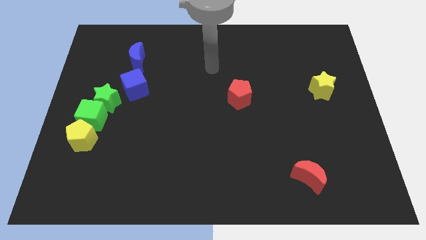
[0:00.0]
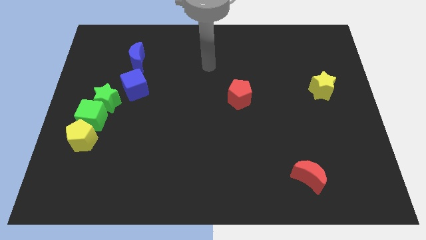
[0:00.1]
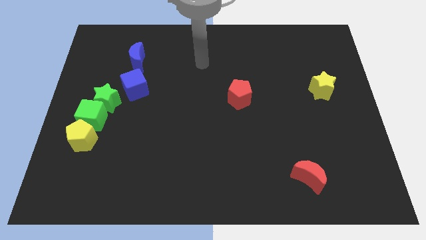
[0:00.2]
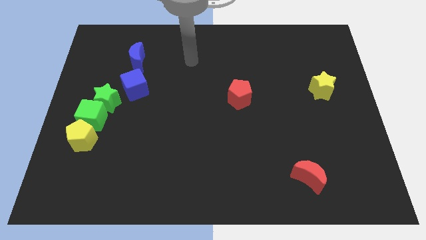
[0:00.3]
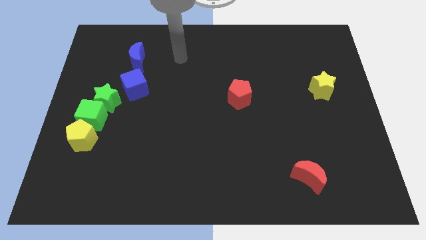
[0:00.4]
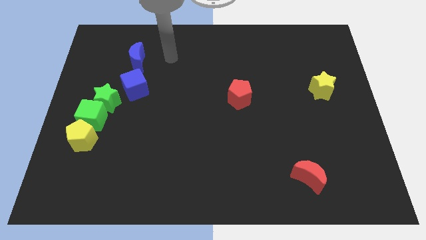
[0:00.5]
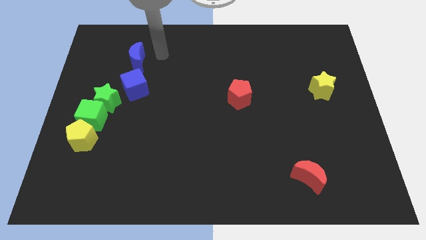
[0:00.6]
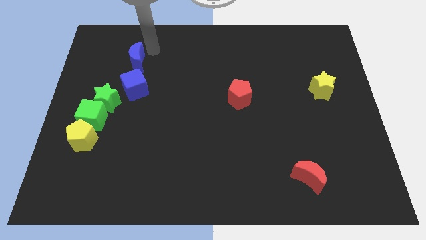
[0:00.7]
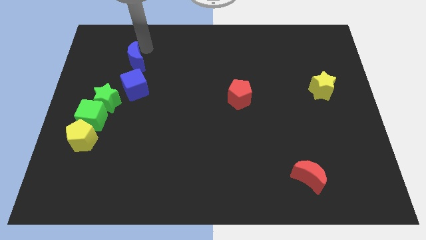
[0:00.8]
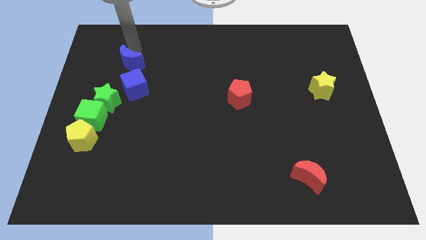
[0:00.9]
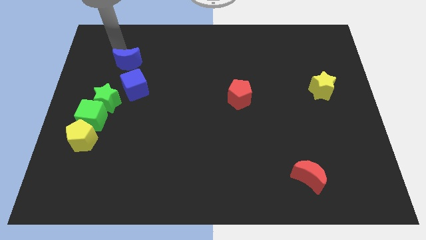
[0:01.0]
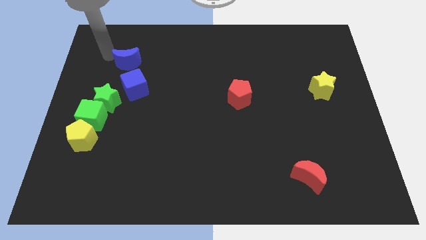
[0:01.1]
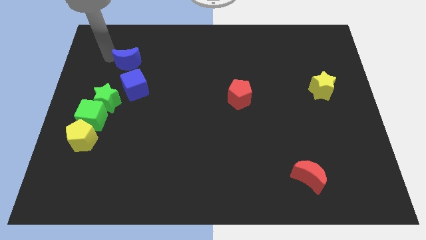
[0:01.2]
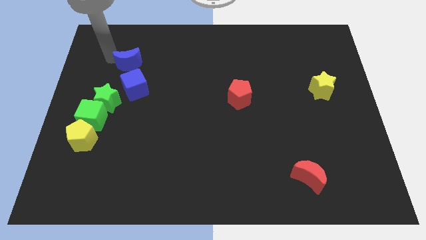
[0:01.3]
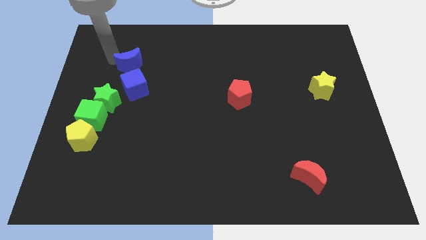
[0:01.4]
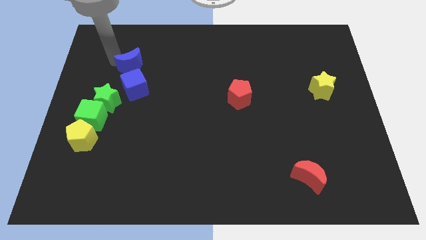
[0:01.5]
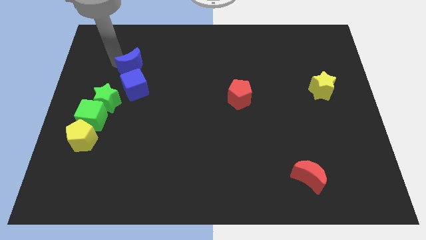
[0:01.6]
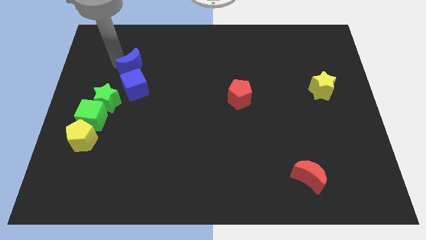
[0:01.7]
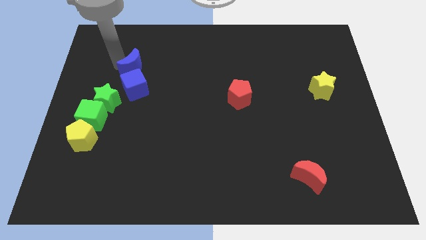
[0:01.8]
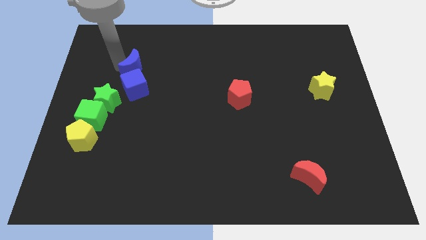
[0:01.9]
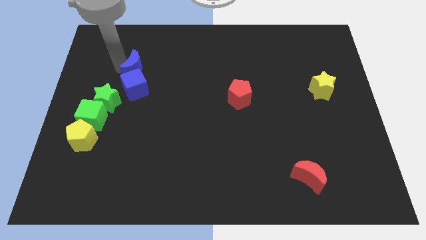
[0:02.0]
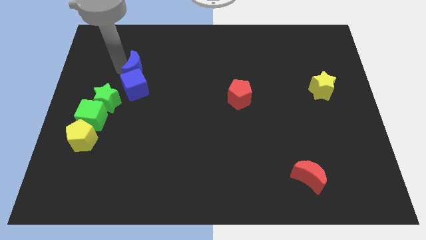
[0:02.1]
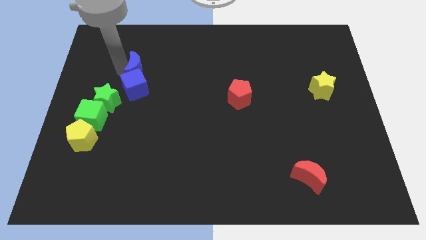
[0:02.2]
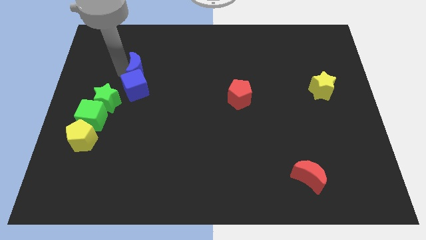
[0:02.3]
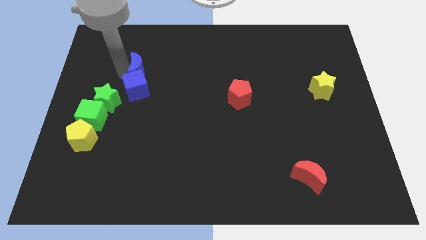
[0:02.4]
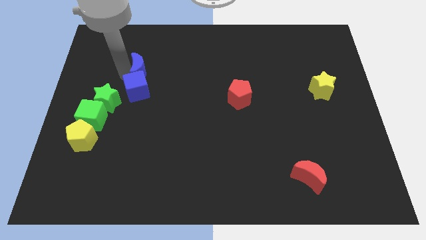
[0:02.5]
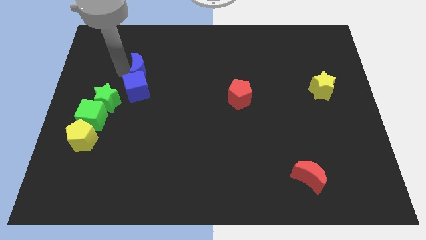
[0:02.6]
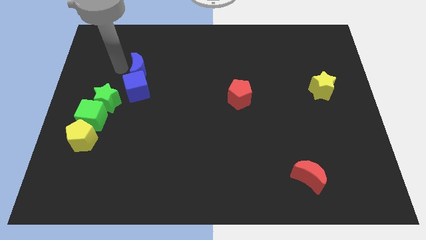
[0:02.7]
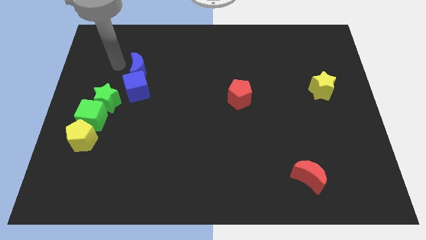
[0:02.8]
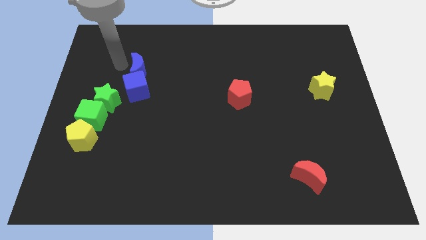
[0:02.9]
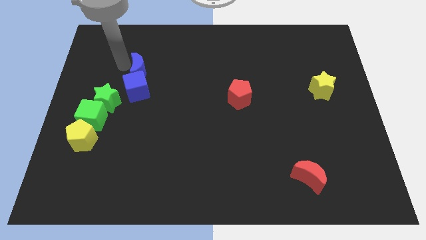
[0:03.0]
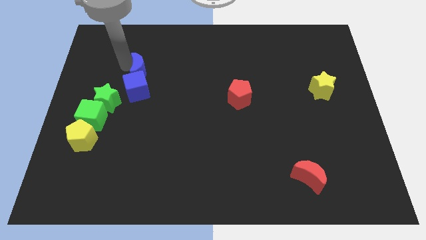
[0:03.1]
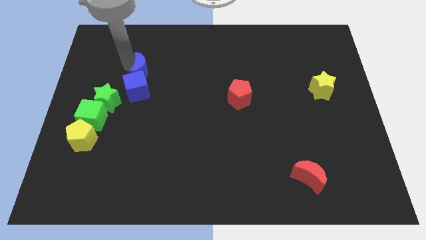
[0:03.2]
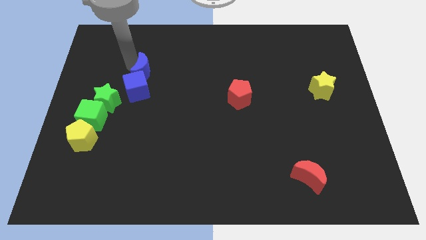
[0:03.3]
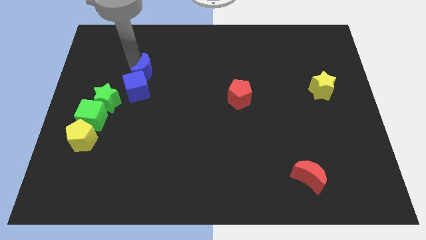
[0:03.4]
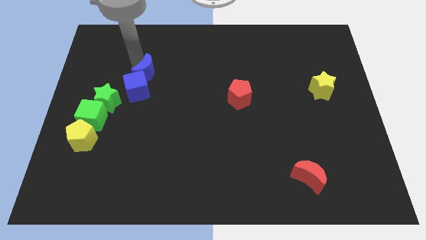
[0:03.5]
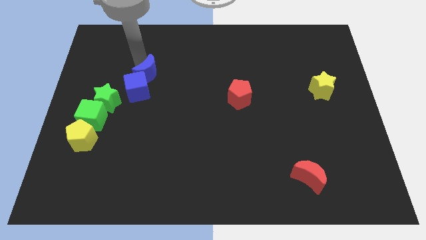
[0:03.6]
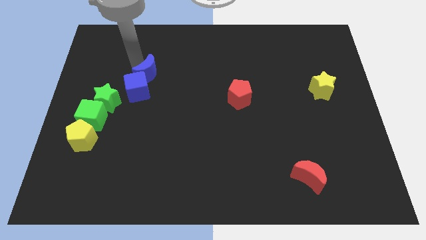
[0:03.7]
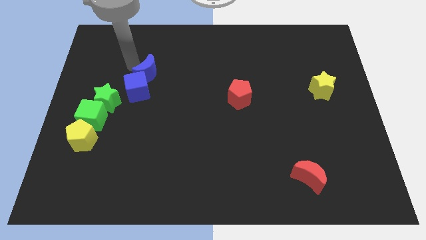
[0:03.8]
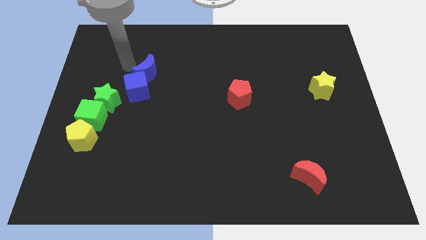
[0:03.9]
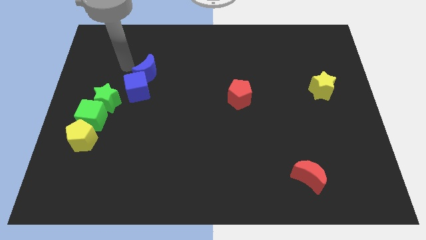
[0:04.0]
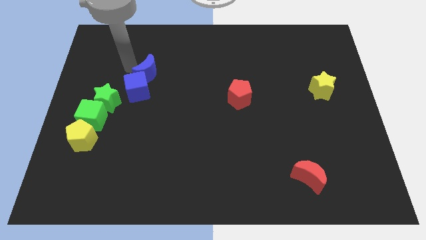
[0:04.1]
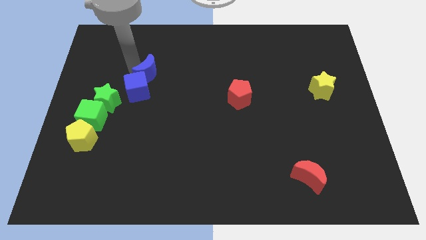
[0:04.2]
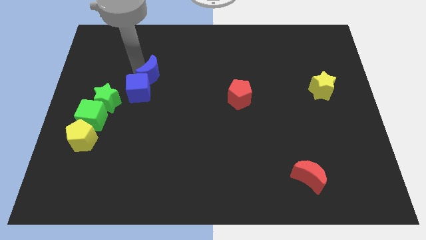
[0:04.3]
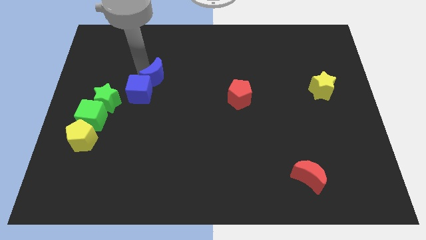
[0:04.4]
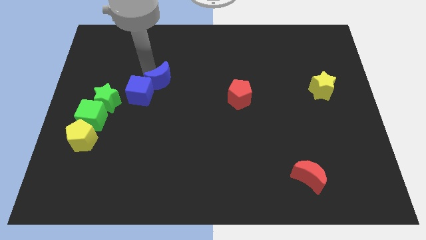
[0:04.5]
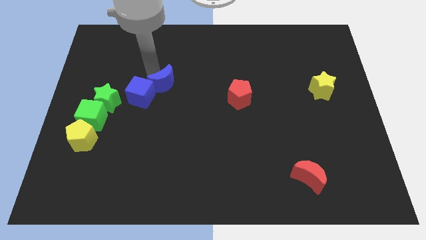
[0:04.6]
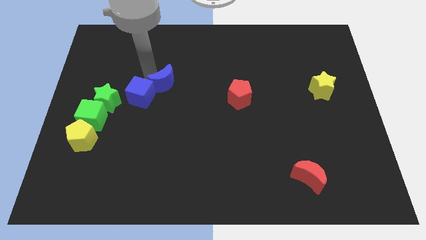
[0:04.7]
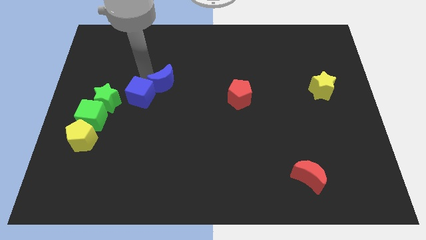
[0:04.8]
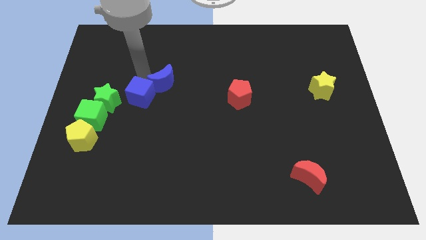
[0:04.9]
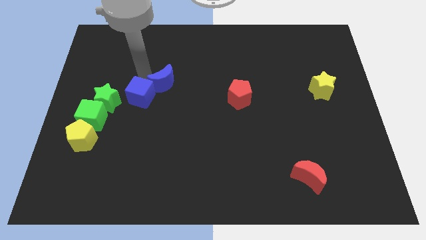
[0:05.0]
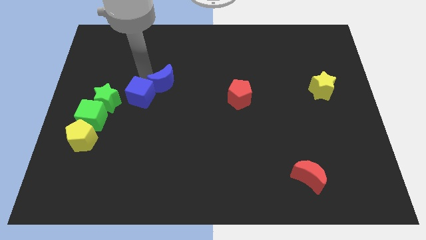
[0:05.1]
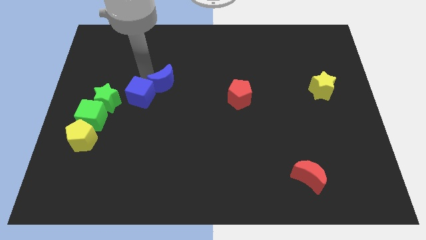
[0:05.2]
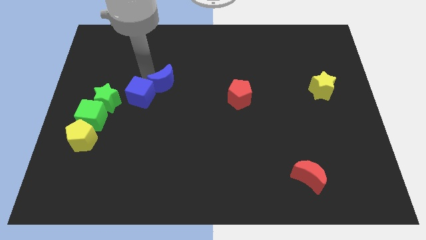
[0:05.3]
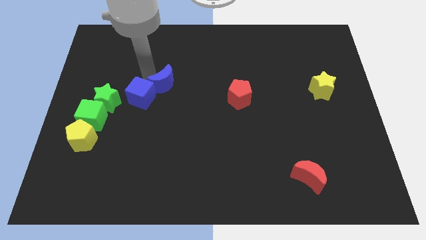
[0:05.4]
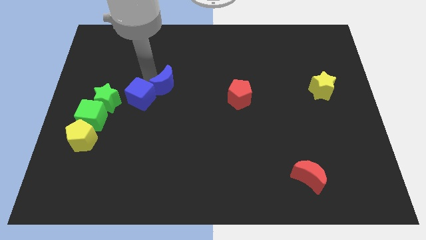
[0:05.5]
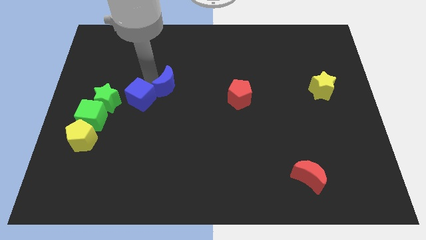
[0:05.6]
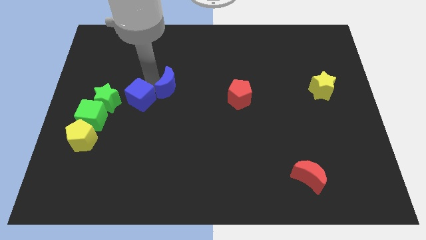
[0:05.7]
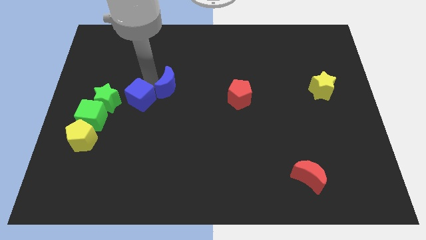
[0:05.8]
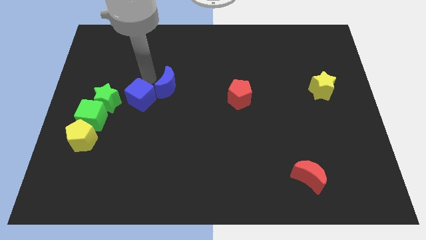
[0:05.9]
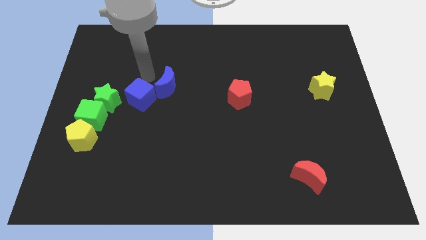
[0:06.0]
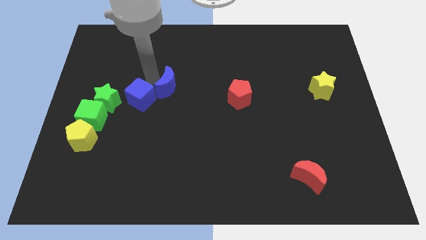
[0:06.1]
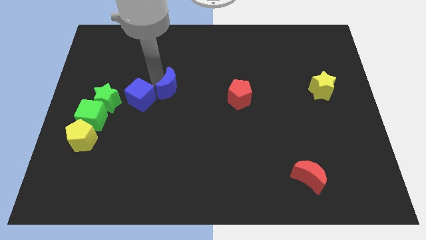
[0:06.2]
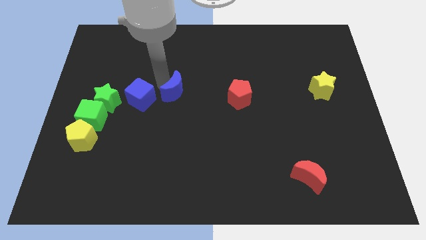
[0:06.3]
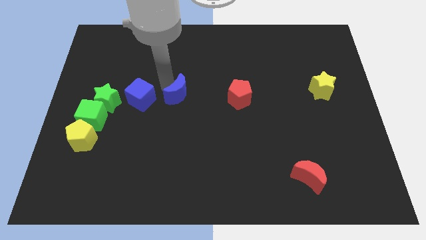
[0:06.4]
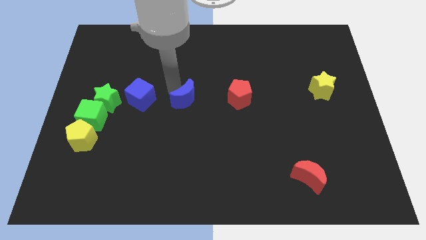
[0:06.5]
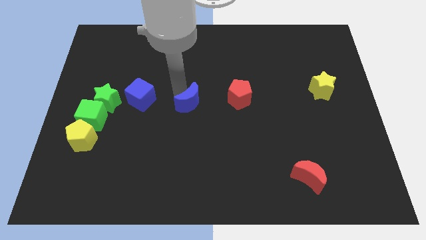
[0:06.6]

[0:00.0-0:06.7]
push the blue moon down and to the right

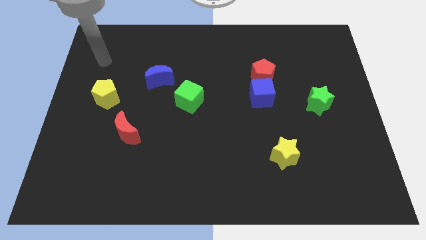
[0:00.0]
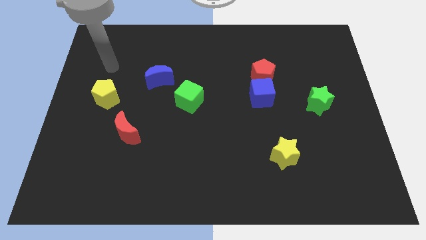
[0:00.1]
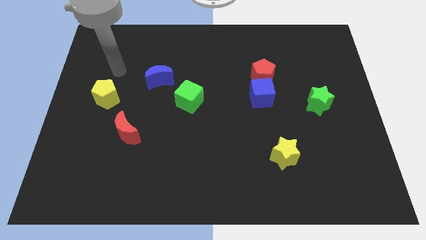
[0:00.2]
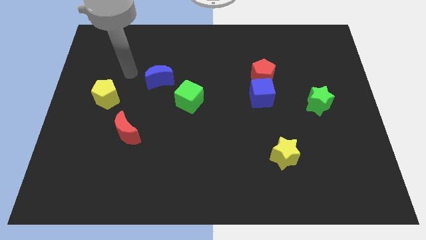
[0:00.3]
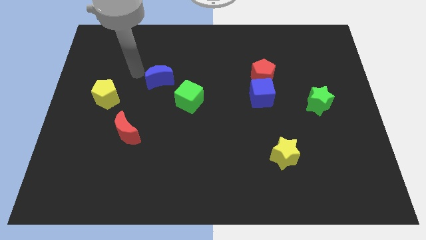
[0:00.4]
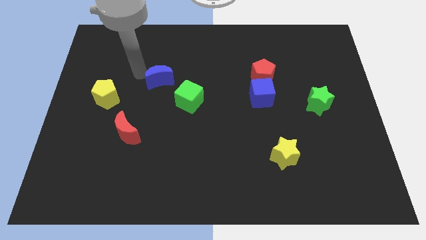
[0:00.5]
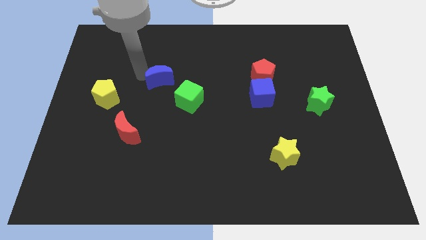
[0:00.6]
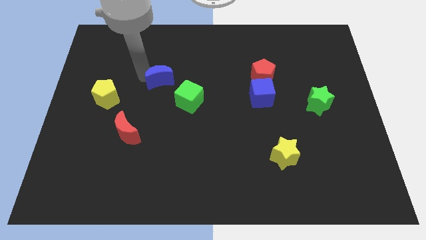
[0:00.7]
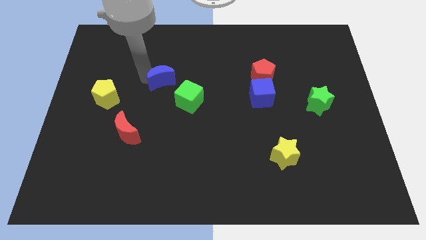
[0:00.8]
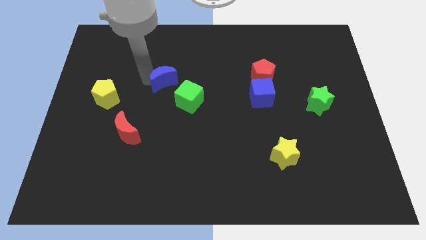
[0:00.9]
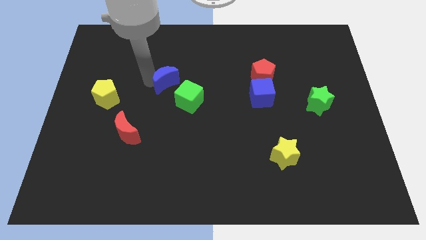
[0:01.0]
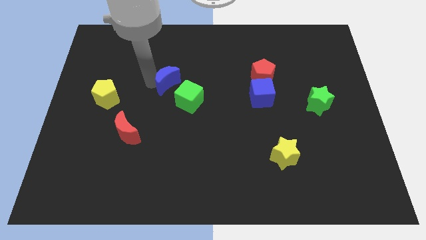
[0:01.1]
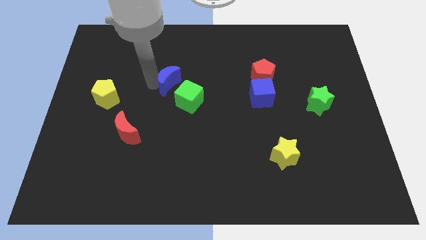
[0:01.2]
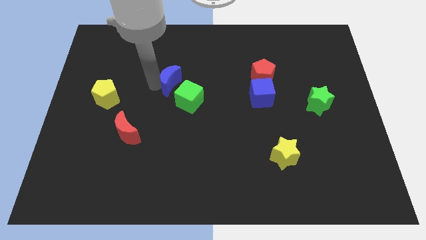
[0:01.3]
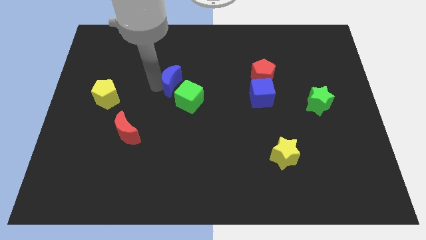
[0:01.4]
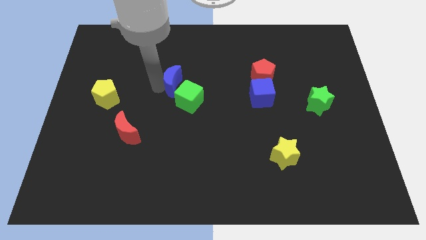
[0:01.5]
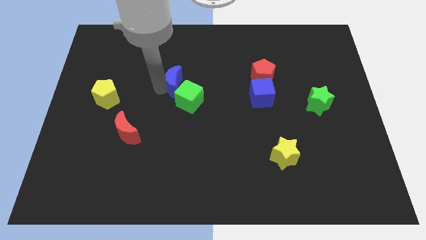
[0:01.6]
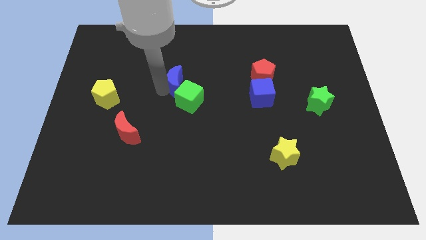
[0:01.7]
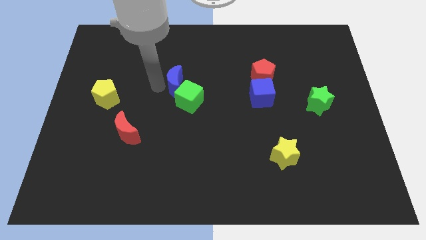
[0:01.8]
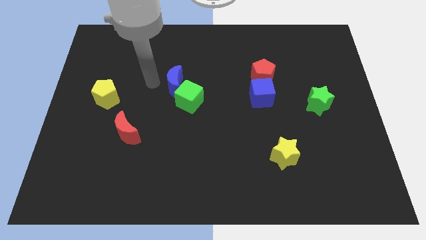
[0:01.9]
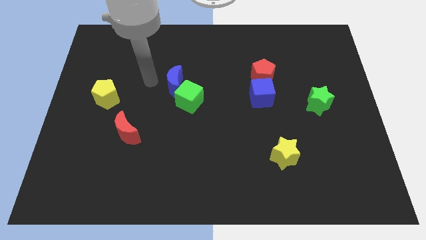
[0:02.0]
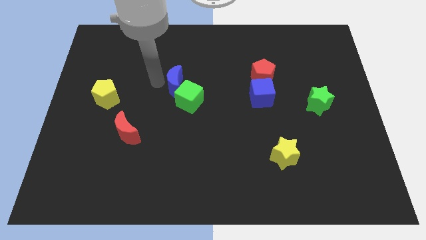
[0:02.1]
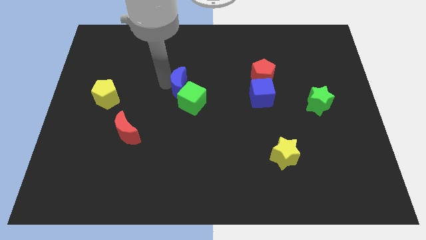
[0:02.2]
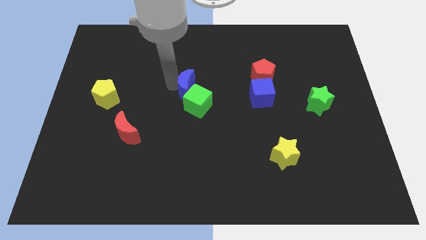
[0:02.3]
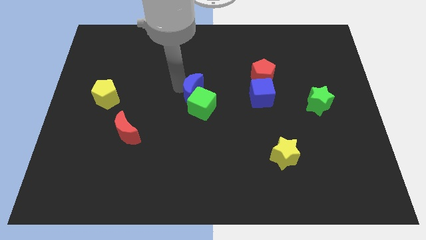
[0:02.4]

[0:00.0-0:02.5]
slightly push the blue moon down and then to the right
